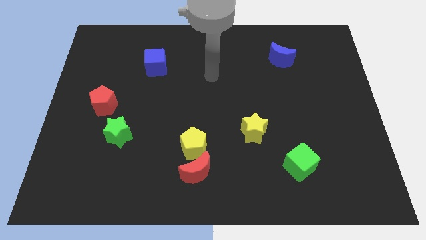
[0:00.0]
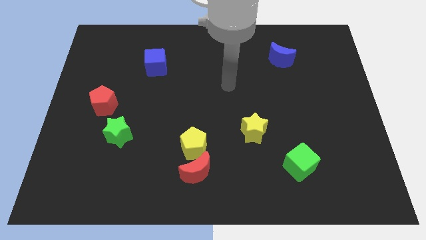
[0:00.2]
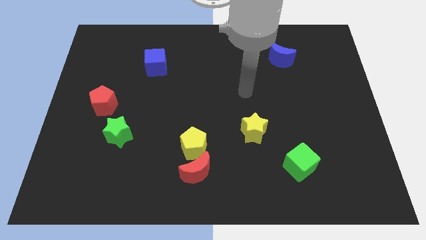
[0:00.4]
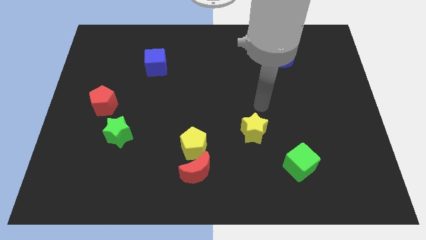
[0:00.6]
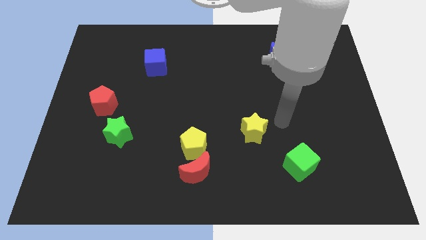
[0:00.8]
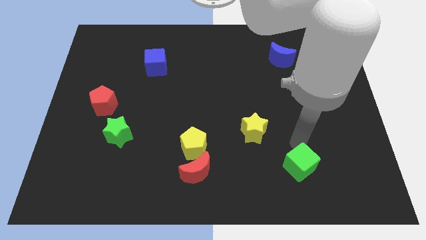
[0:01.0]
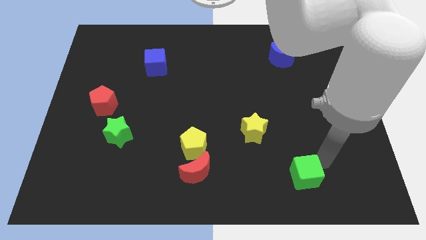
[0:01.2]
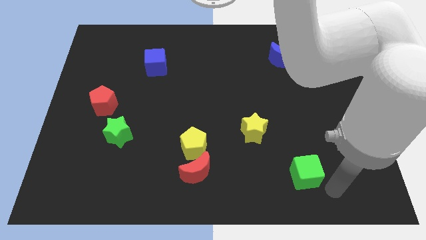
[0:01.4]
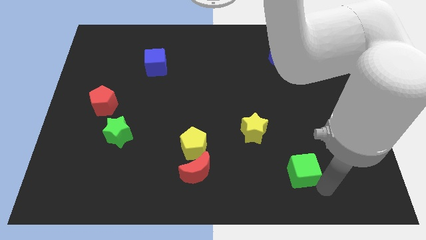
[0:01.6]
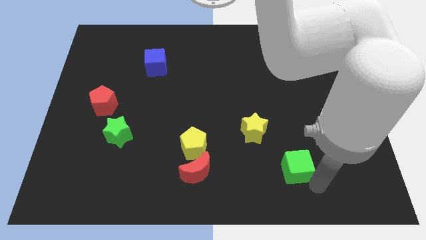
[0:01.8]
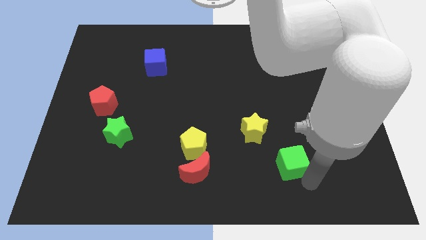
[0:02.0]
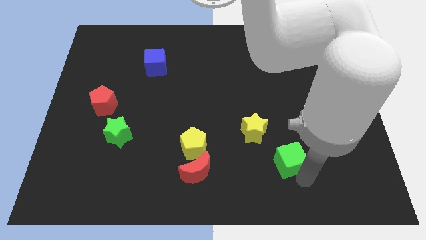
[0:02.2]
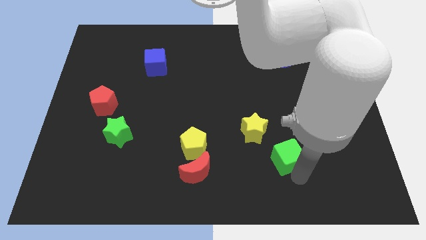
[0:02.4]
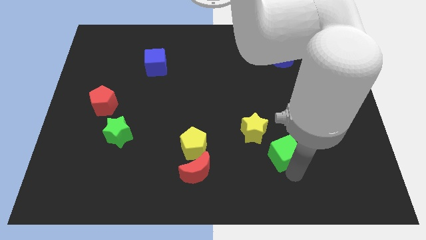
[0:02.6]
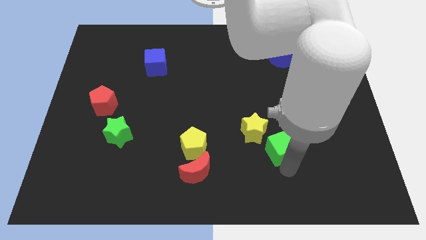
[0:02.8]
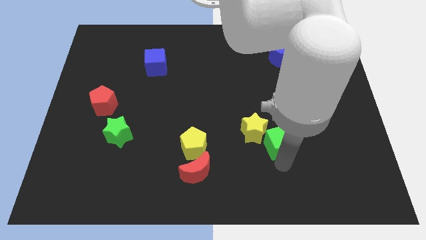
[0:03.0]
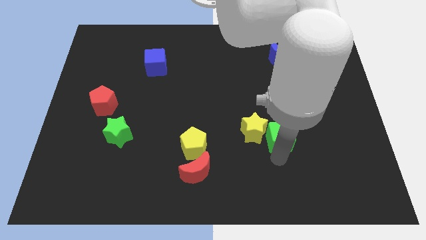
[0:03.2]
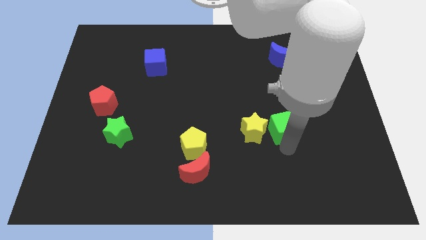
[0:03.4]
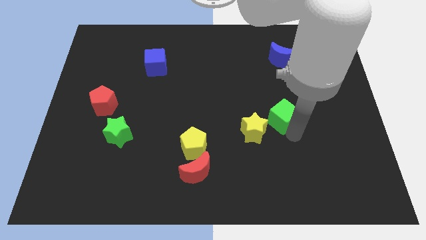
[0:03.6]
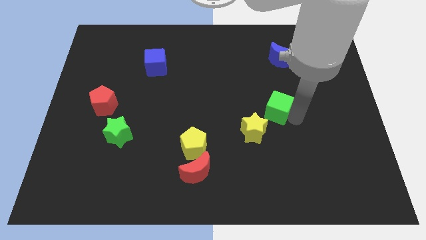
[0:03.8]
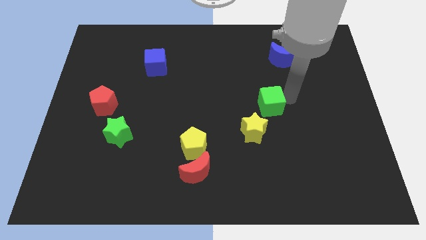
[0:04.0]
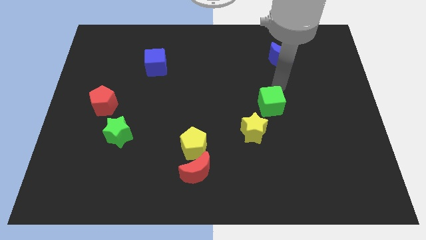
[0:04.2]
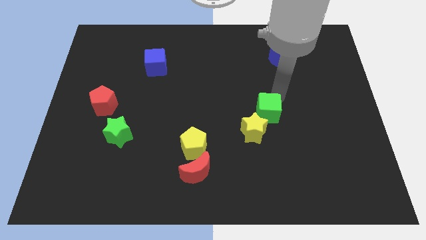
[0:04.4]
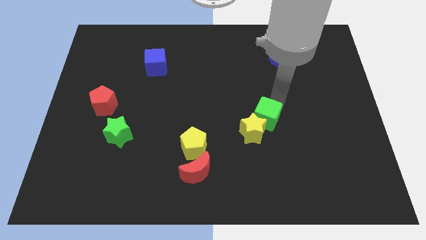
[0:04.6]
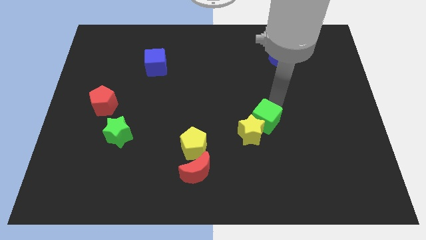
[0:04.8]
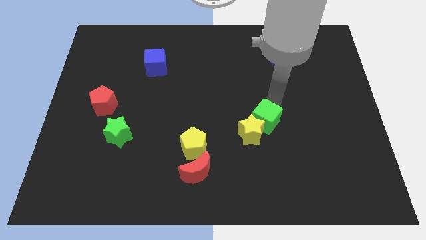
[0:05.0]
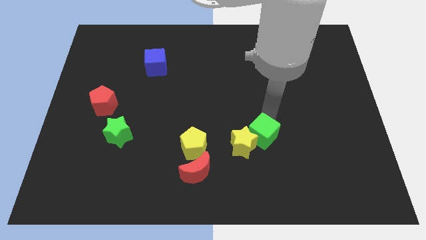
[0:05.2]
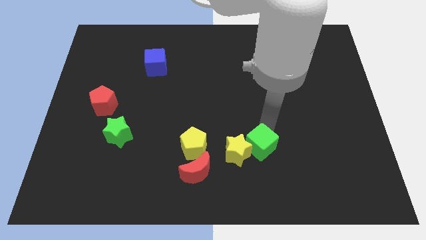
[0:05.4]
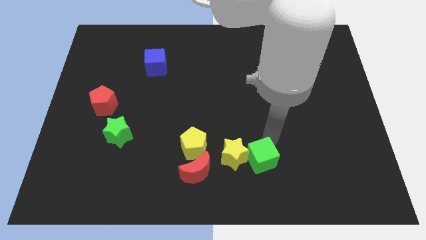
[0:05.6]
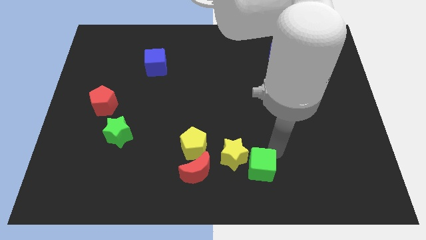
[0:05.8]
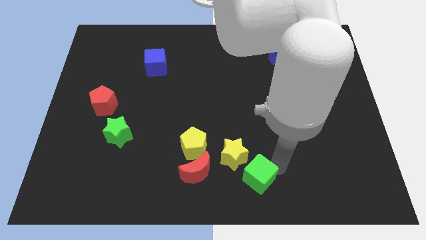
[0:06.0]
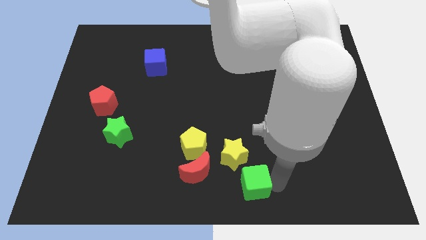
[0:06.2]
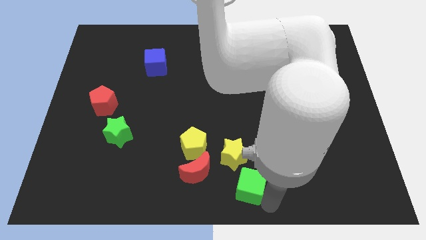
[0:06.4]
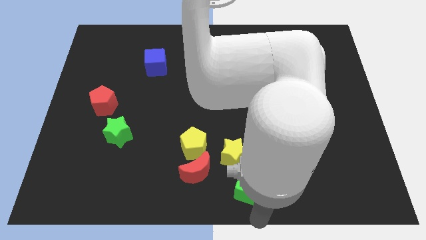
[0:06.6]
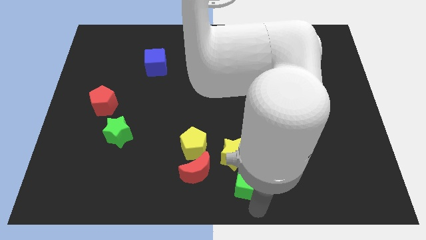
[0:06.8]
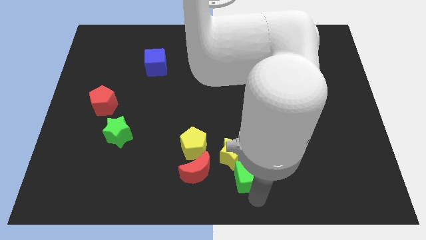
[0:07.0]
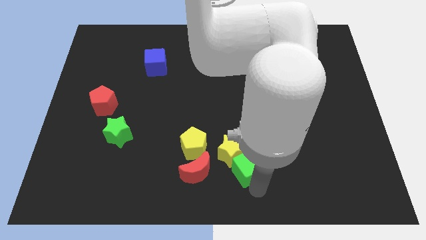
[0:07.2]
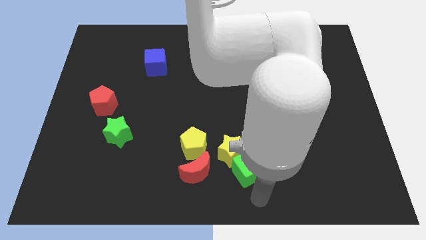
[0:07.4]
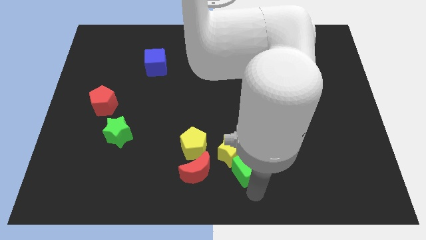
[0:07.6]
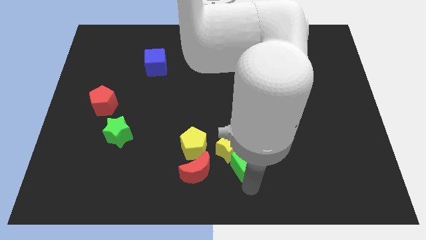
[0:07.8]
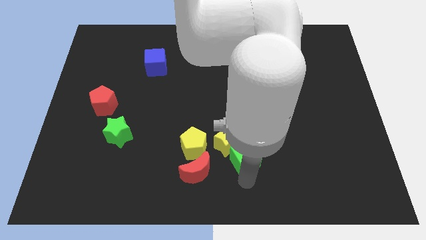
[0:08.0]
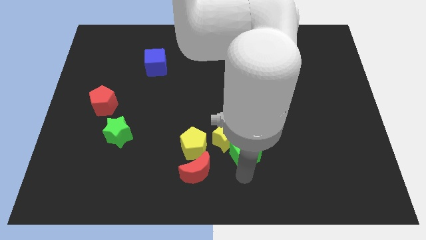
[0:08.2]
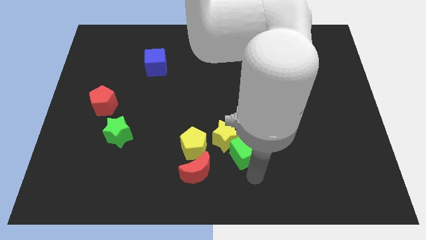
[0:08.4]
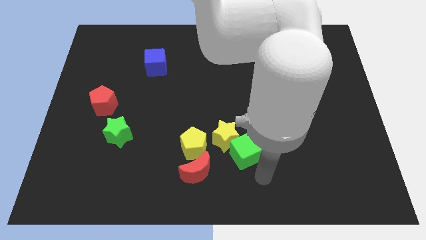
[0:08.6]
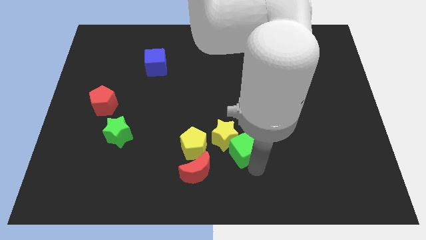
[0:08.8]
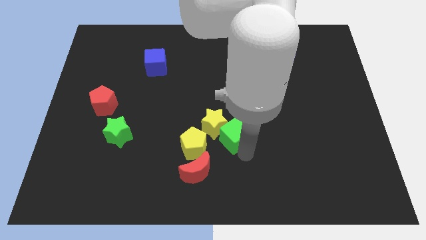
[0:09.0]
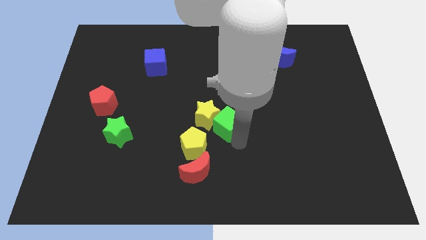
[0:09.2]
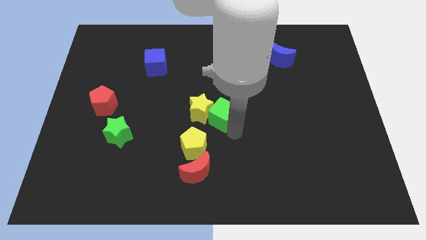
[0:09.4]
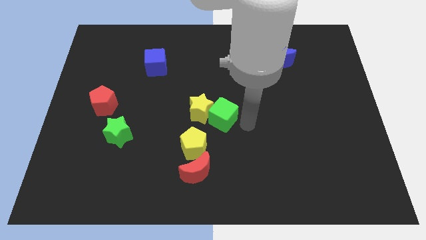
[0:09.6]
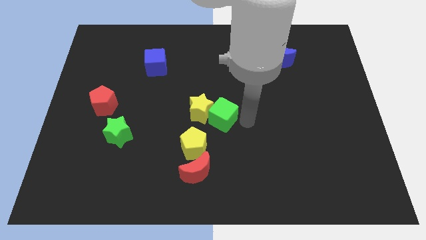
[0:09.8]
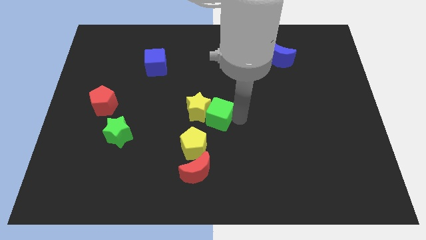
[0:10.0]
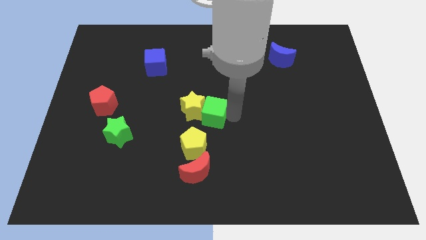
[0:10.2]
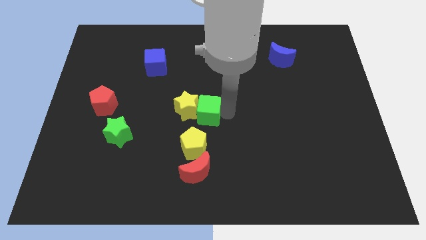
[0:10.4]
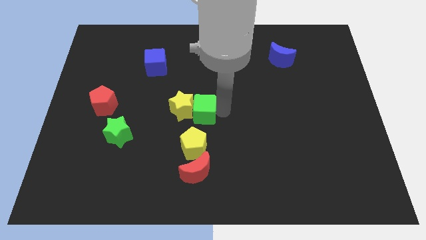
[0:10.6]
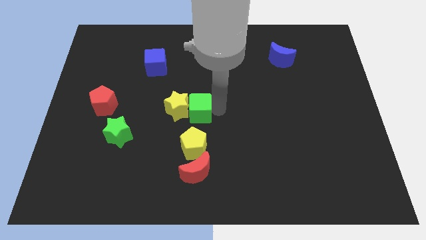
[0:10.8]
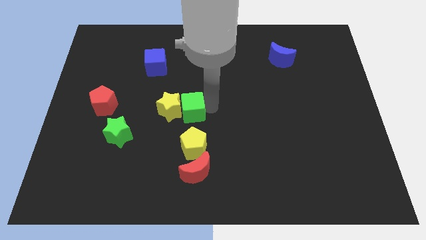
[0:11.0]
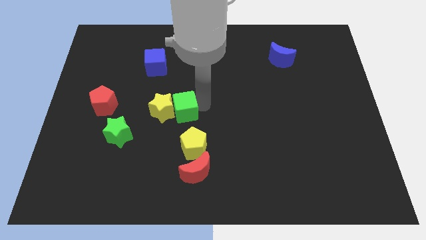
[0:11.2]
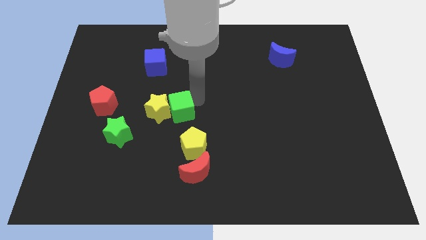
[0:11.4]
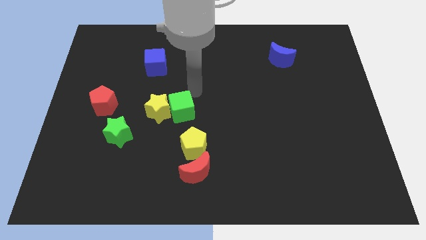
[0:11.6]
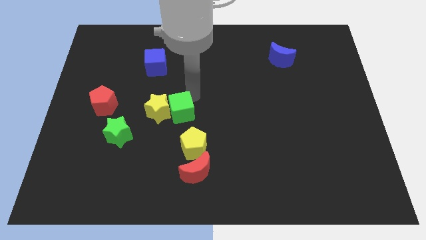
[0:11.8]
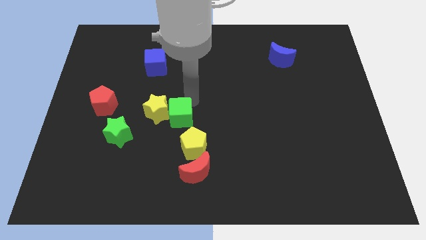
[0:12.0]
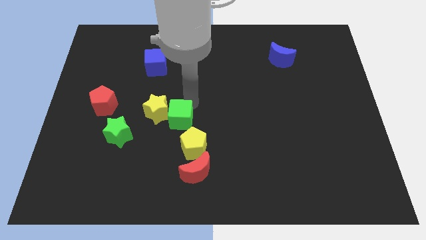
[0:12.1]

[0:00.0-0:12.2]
put the green cube to the right of the green star

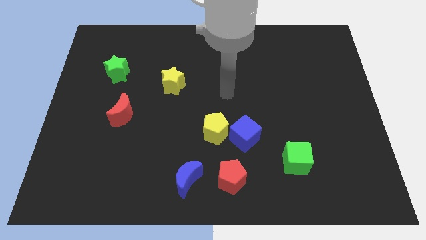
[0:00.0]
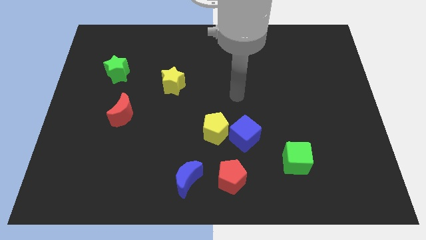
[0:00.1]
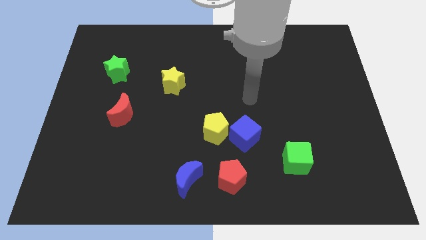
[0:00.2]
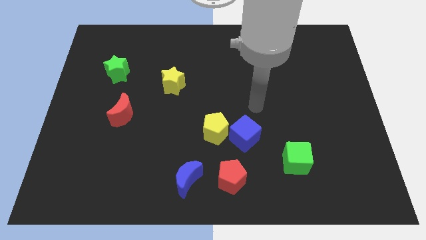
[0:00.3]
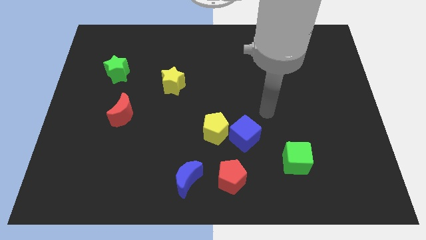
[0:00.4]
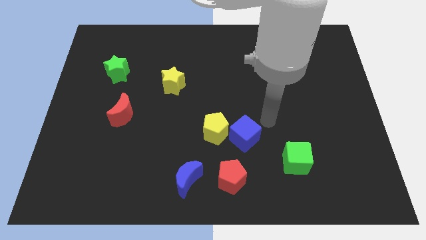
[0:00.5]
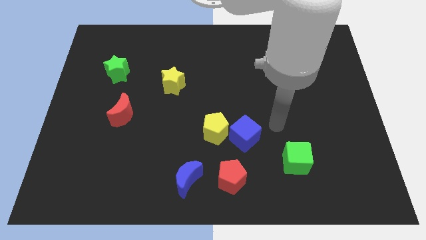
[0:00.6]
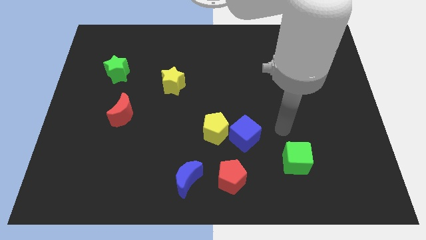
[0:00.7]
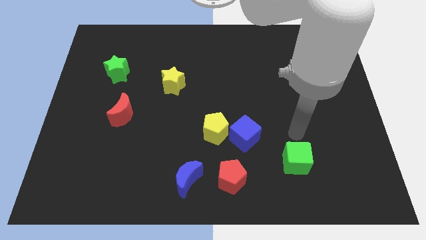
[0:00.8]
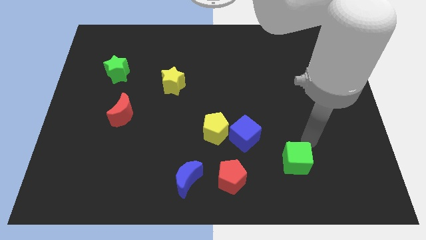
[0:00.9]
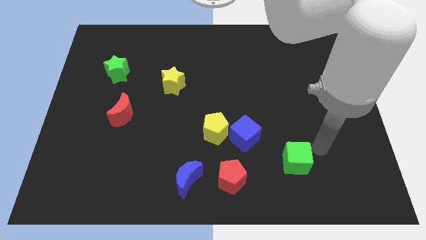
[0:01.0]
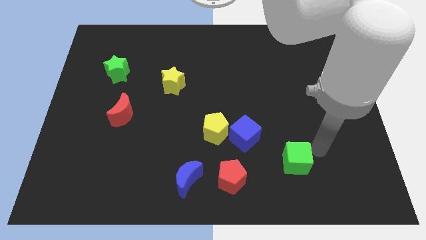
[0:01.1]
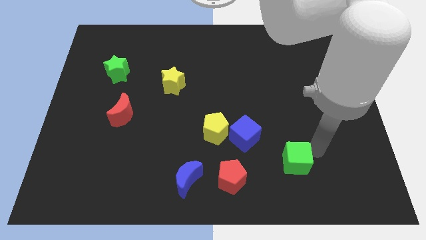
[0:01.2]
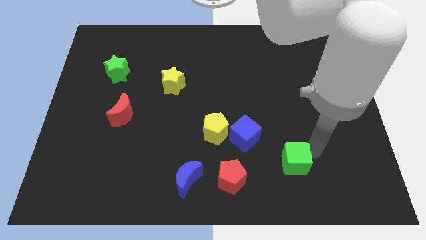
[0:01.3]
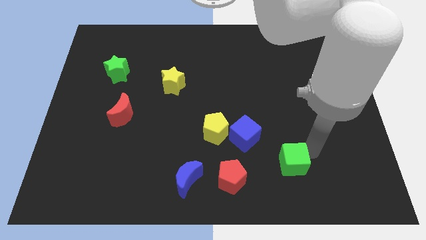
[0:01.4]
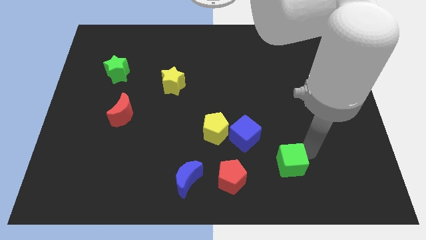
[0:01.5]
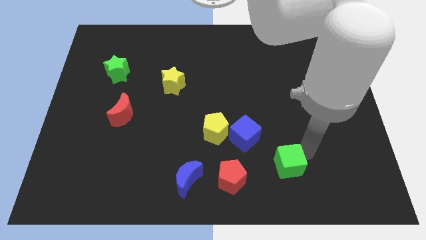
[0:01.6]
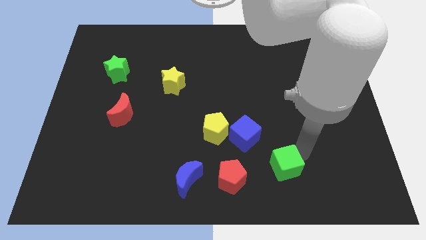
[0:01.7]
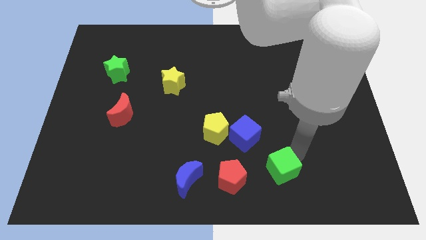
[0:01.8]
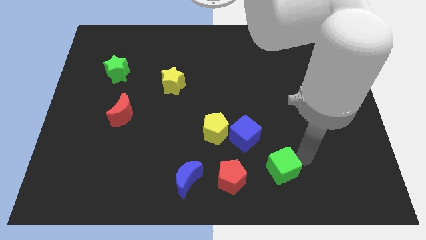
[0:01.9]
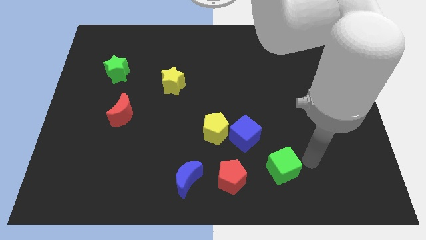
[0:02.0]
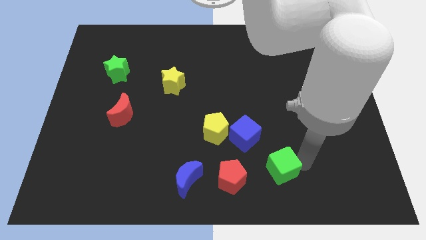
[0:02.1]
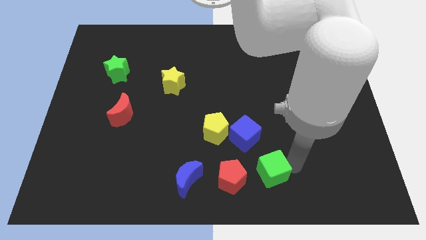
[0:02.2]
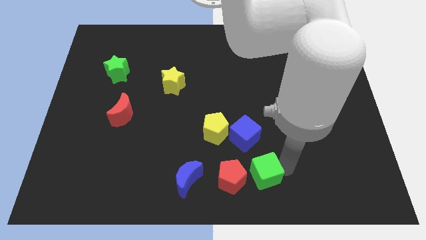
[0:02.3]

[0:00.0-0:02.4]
put the green cube to the right of the blue moon
